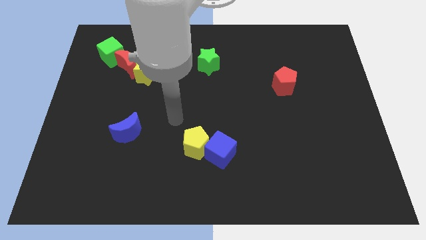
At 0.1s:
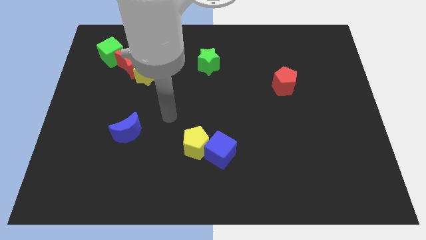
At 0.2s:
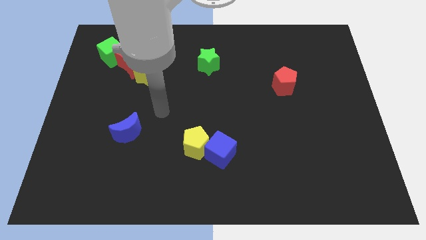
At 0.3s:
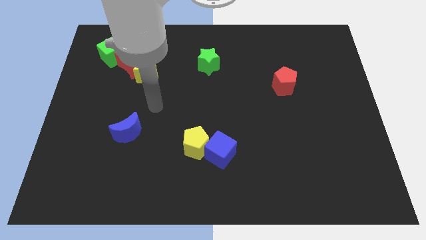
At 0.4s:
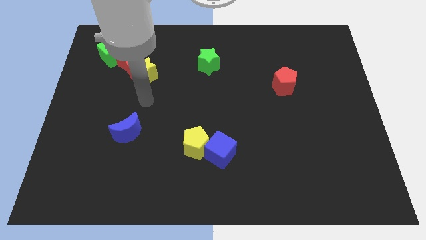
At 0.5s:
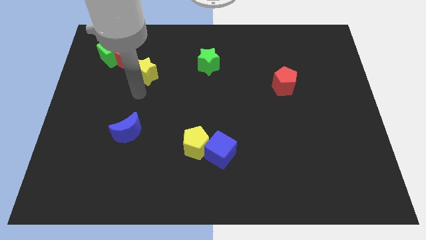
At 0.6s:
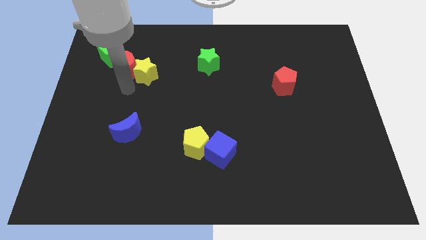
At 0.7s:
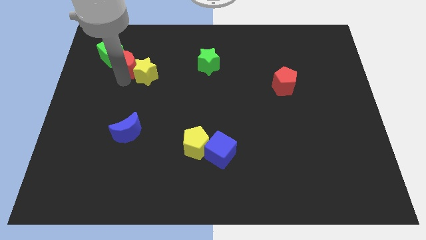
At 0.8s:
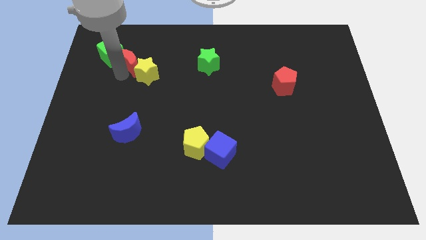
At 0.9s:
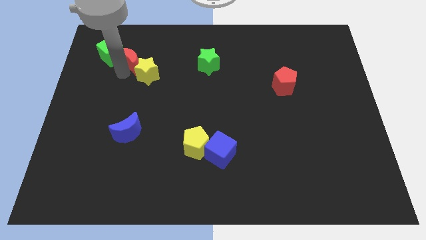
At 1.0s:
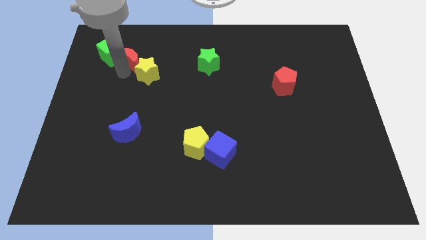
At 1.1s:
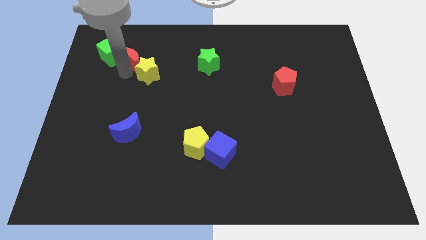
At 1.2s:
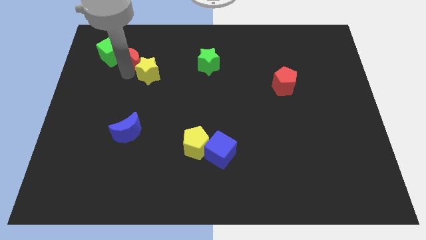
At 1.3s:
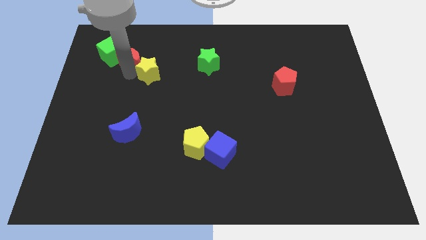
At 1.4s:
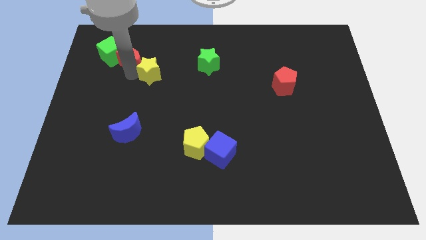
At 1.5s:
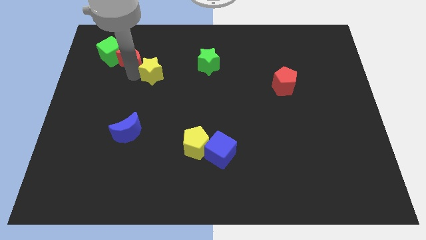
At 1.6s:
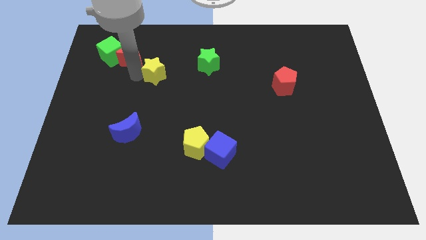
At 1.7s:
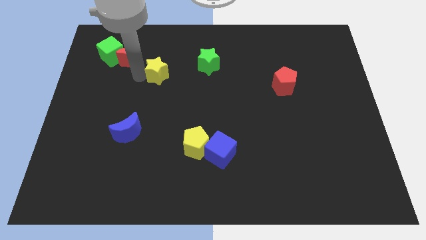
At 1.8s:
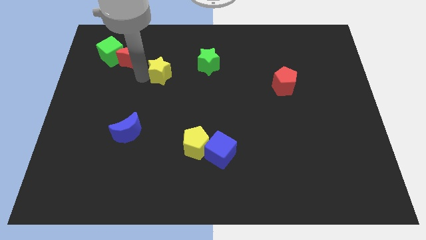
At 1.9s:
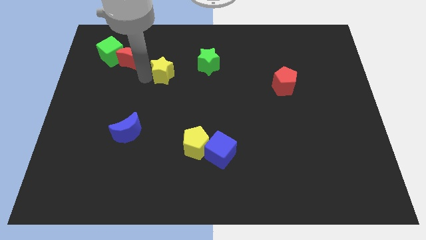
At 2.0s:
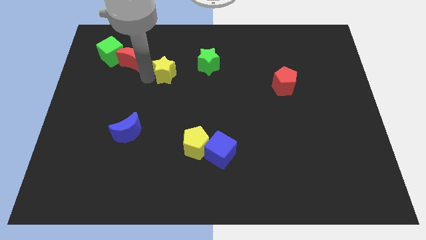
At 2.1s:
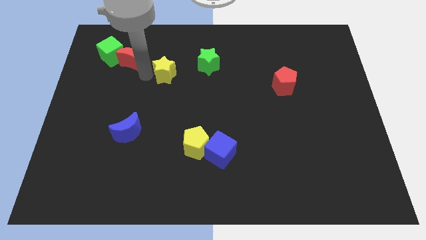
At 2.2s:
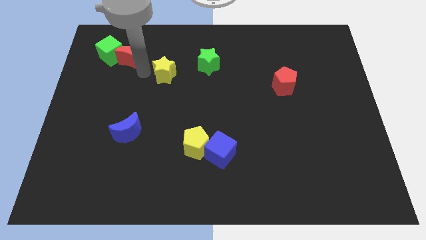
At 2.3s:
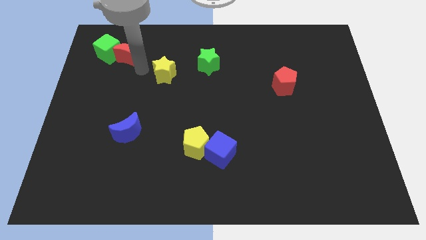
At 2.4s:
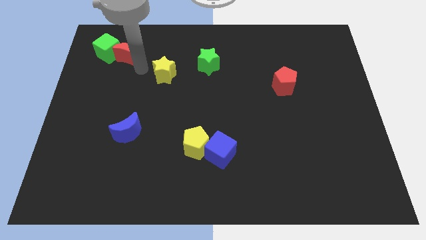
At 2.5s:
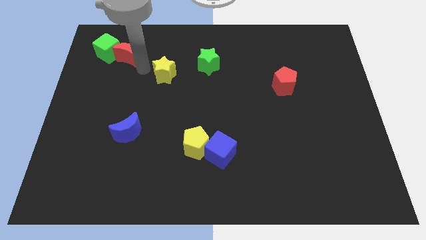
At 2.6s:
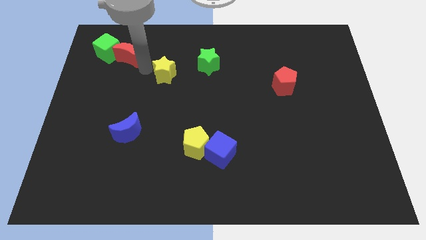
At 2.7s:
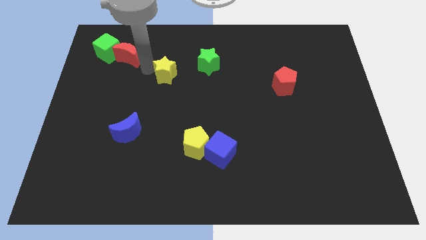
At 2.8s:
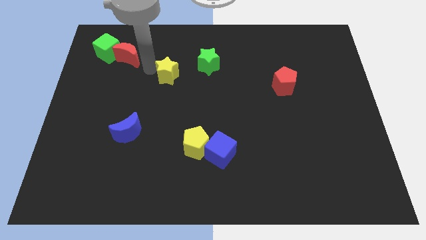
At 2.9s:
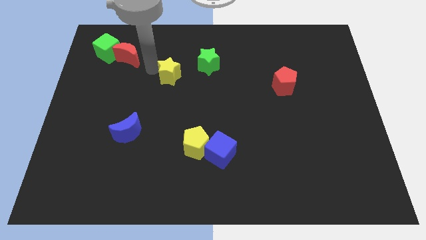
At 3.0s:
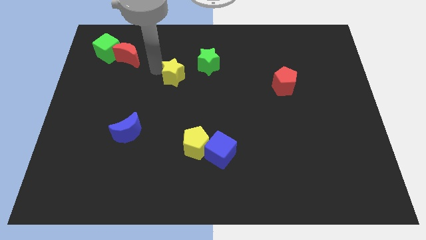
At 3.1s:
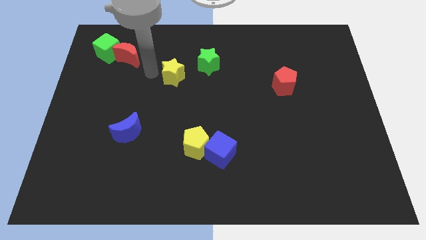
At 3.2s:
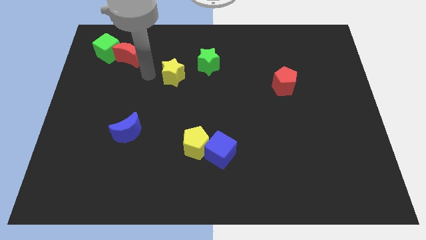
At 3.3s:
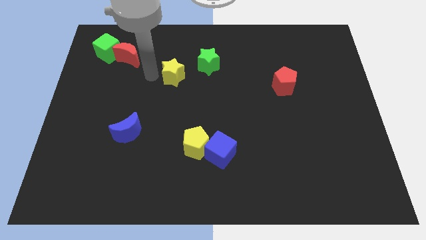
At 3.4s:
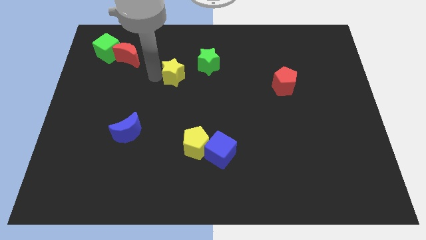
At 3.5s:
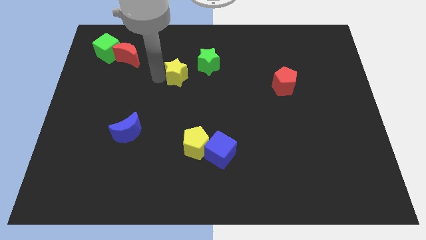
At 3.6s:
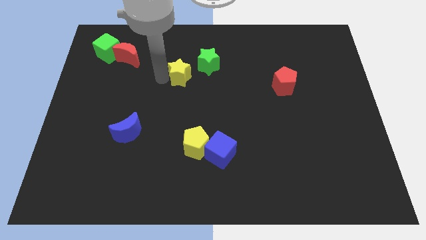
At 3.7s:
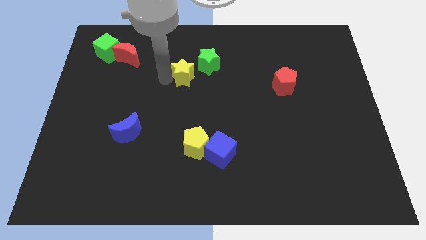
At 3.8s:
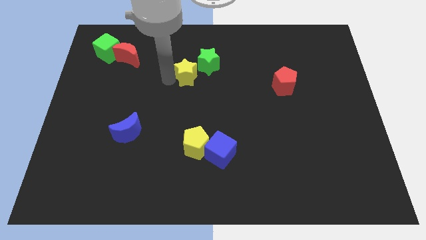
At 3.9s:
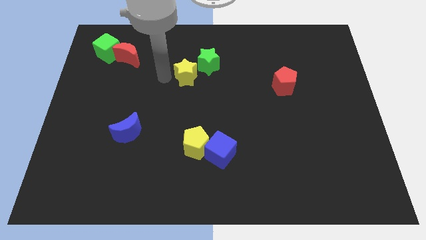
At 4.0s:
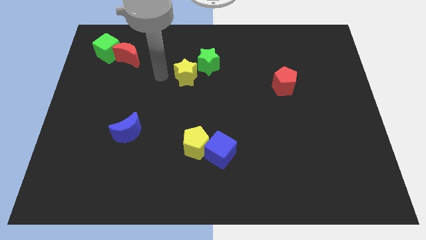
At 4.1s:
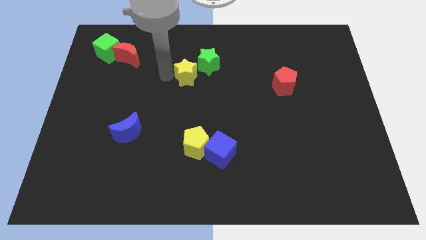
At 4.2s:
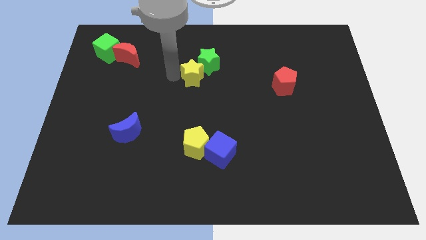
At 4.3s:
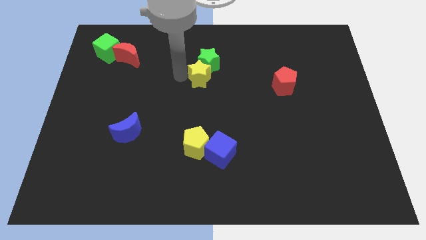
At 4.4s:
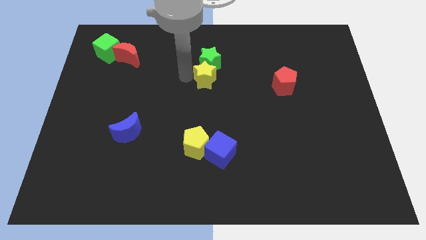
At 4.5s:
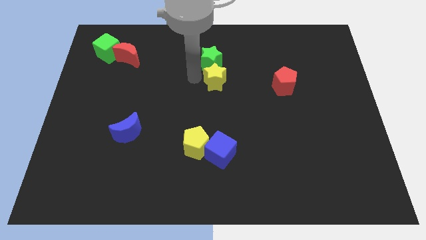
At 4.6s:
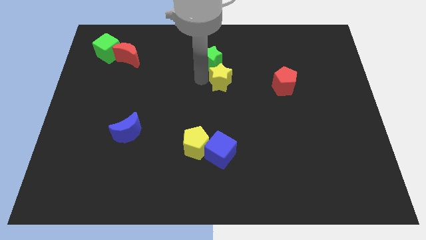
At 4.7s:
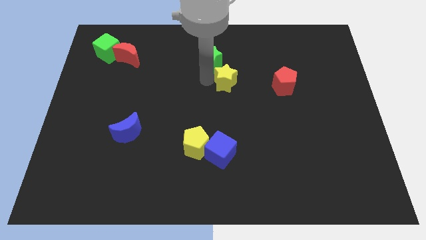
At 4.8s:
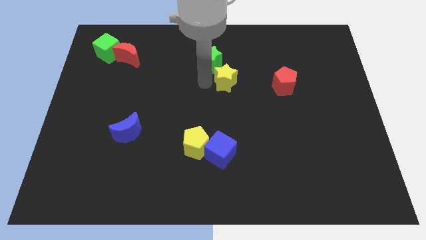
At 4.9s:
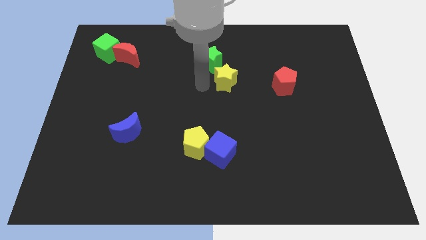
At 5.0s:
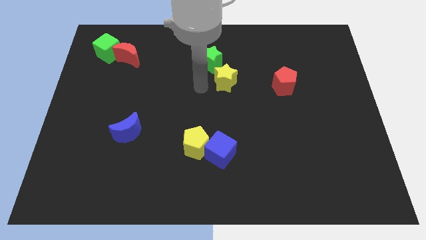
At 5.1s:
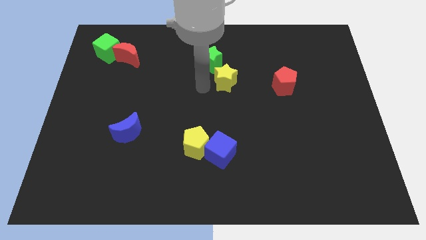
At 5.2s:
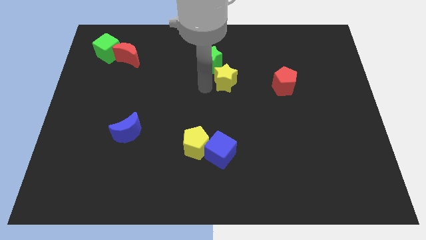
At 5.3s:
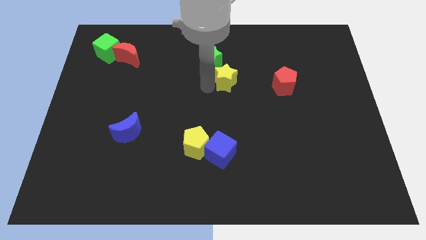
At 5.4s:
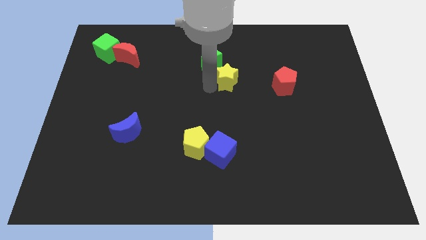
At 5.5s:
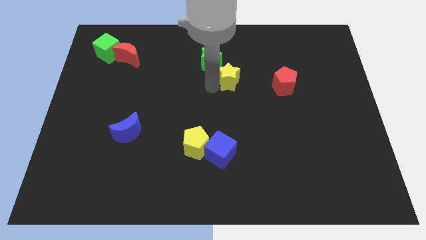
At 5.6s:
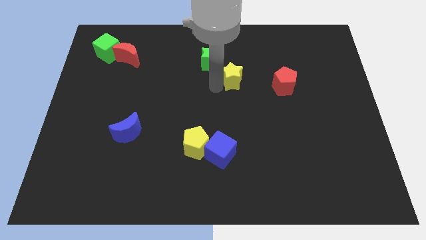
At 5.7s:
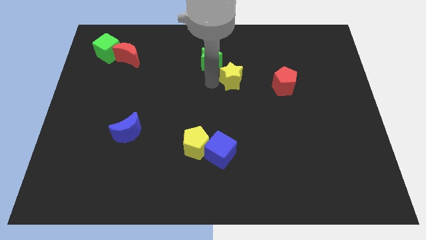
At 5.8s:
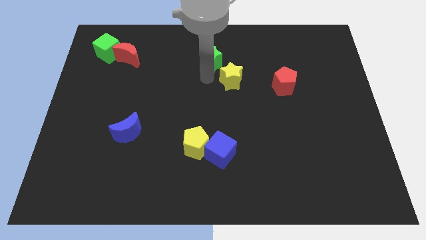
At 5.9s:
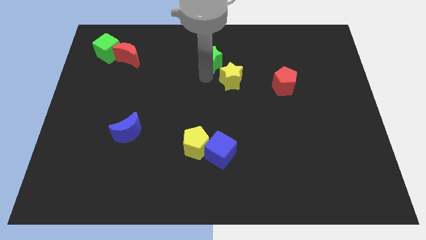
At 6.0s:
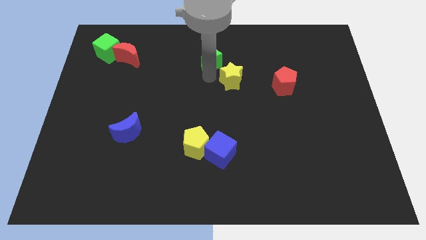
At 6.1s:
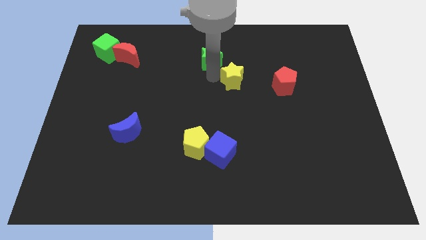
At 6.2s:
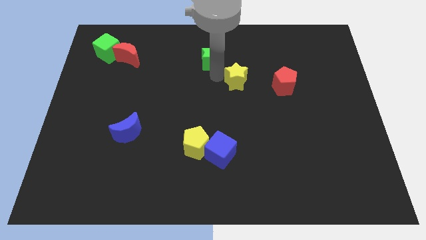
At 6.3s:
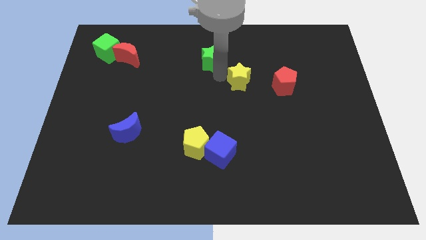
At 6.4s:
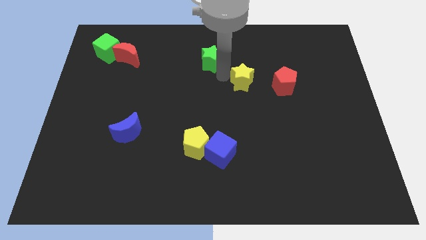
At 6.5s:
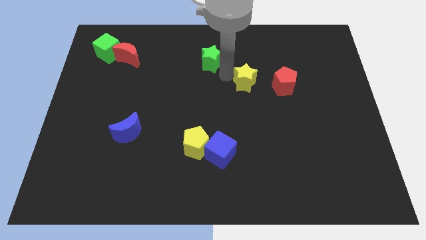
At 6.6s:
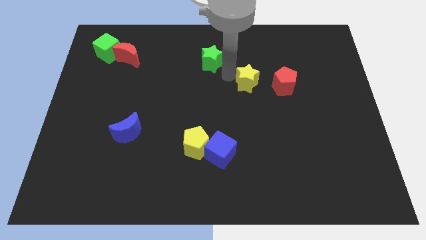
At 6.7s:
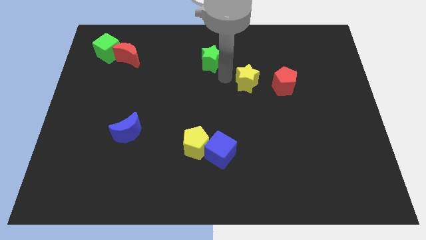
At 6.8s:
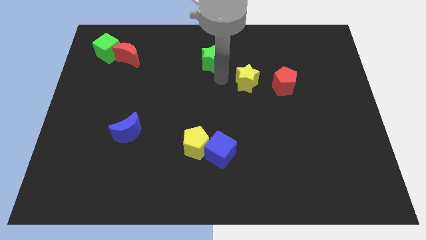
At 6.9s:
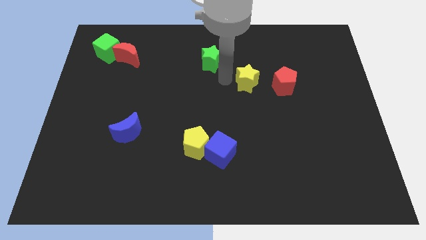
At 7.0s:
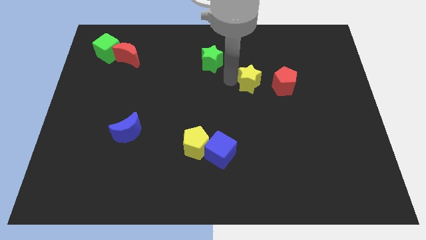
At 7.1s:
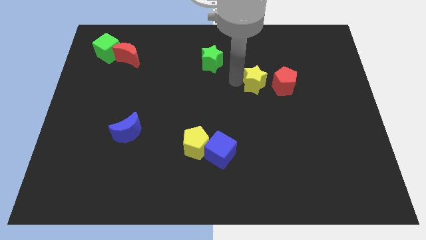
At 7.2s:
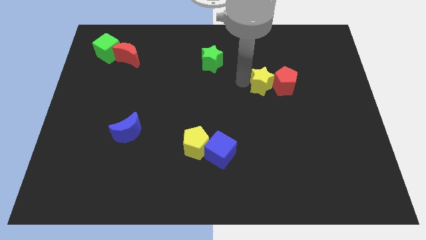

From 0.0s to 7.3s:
put the yellow star close to the red pentagon

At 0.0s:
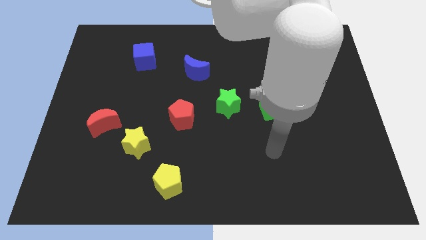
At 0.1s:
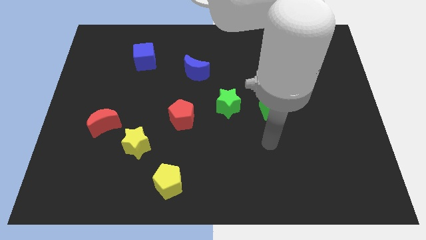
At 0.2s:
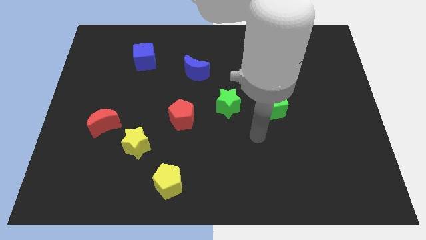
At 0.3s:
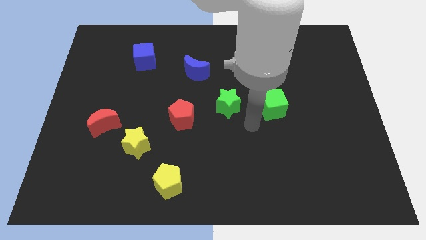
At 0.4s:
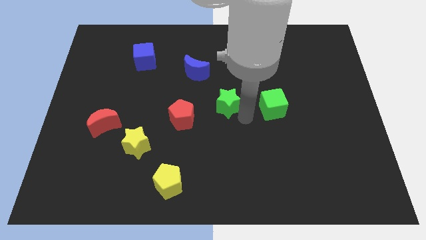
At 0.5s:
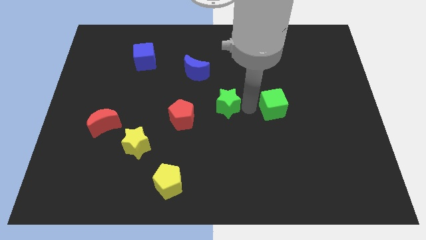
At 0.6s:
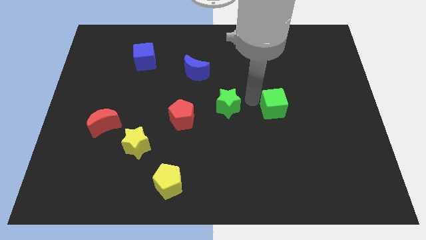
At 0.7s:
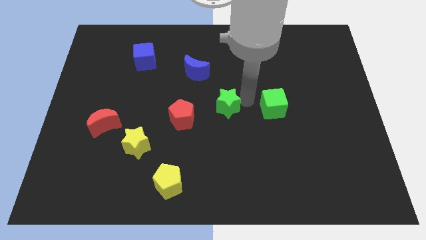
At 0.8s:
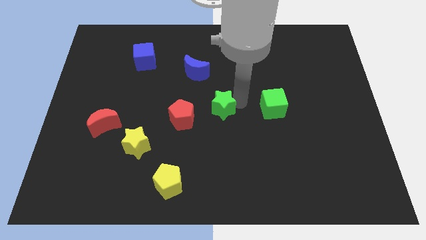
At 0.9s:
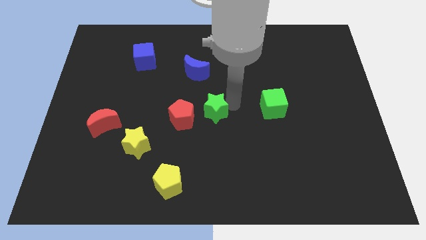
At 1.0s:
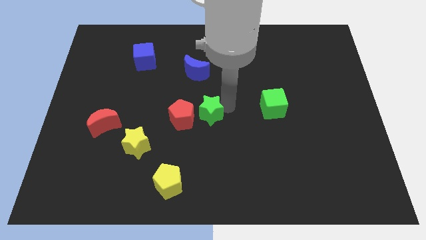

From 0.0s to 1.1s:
slide the green star next to the red pentagon
